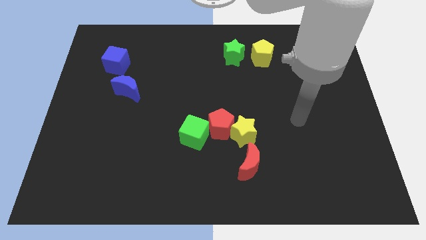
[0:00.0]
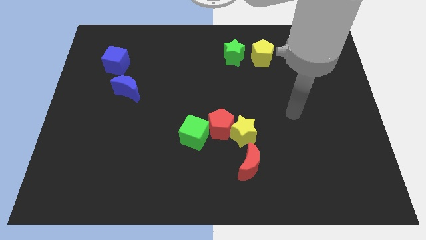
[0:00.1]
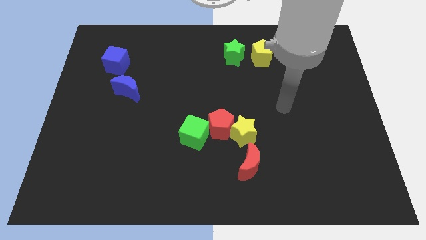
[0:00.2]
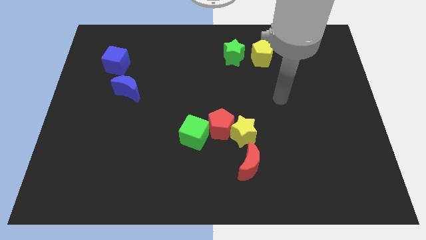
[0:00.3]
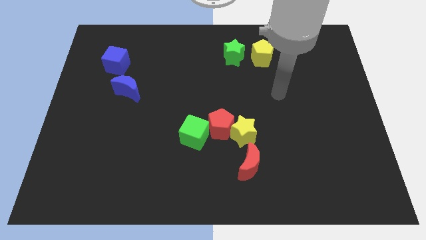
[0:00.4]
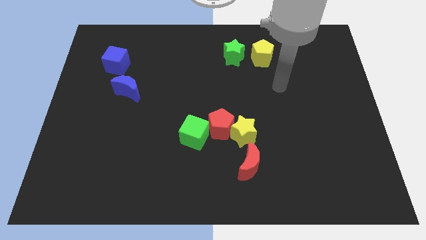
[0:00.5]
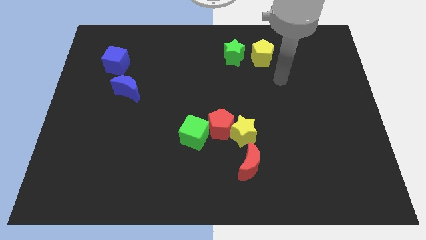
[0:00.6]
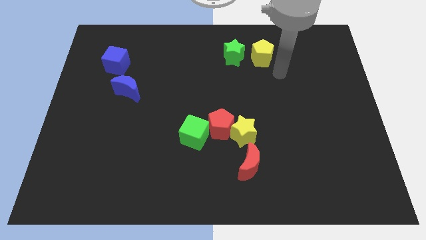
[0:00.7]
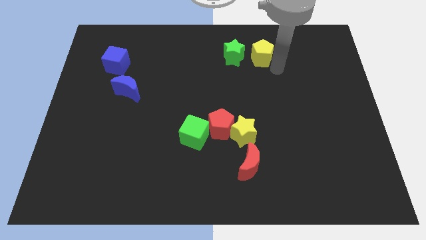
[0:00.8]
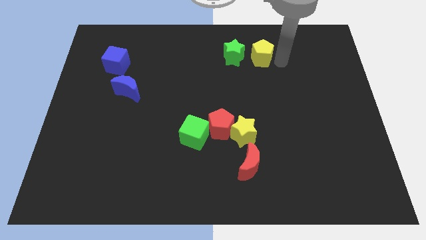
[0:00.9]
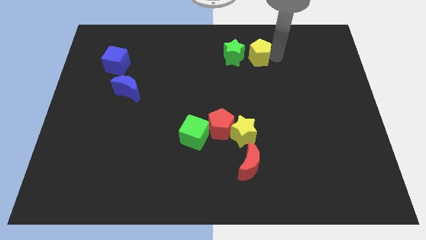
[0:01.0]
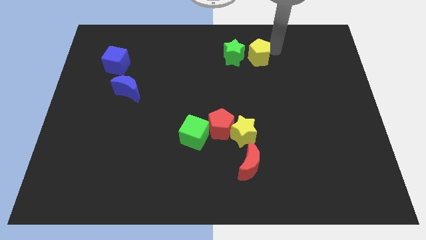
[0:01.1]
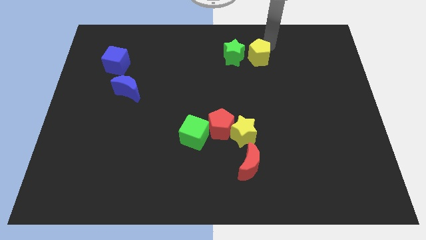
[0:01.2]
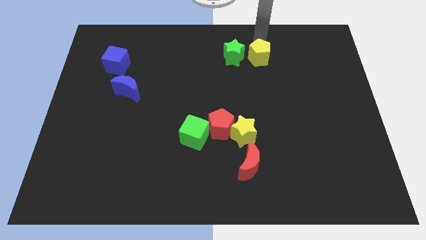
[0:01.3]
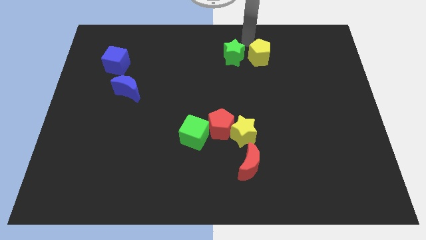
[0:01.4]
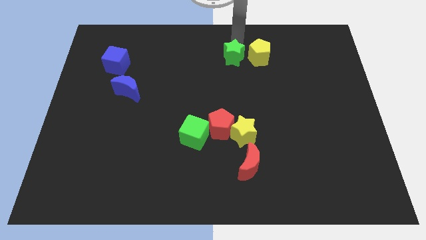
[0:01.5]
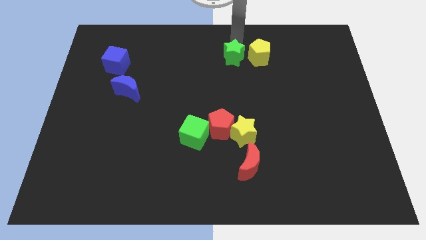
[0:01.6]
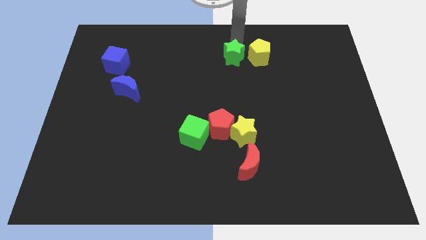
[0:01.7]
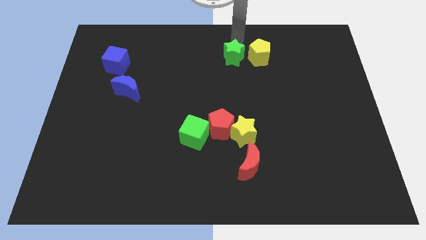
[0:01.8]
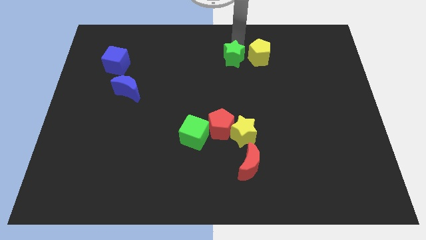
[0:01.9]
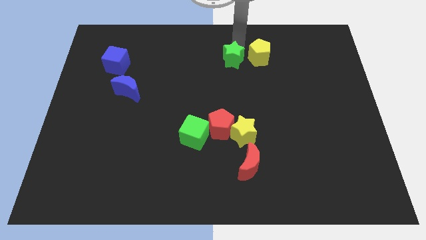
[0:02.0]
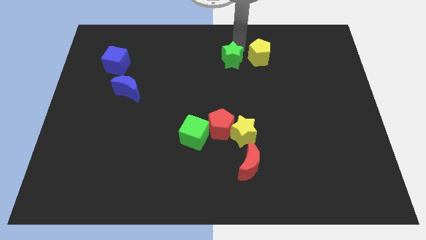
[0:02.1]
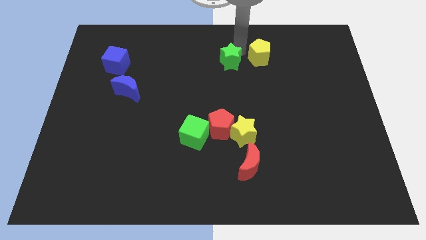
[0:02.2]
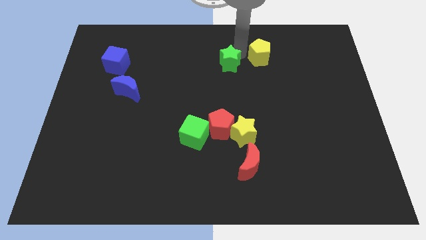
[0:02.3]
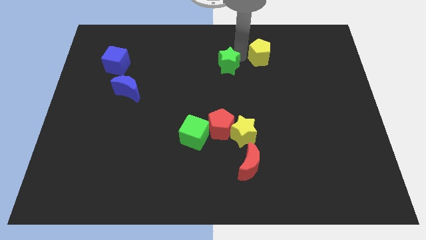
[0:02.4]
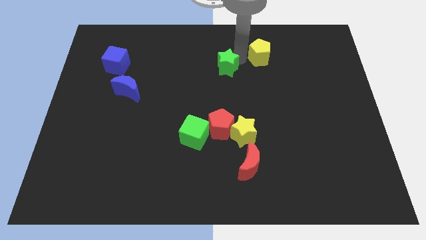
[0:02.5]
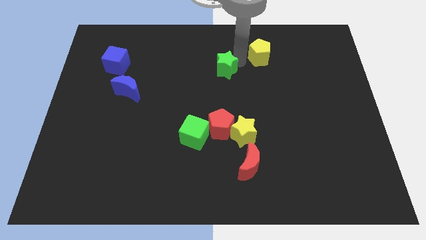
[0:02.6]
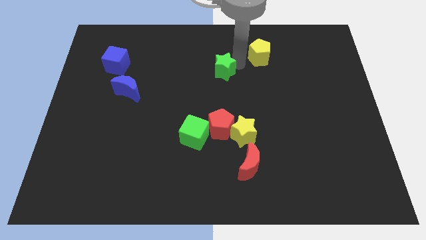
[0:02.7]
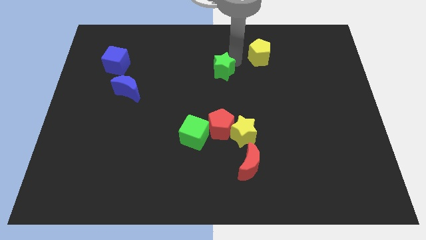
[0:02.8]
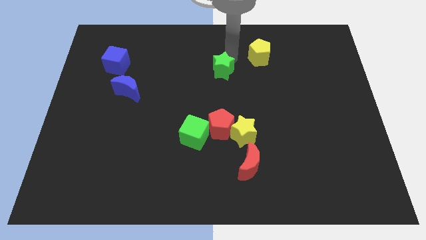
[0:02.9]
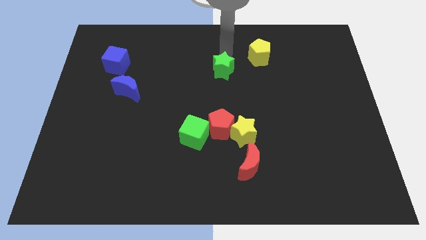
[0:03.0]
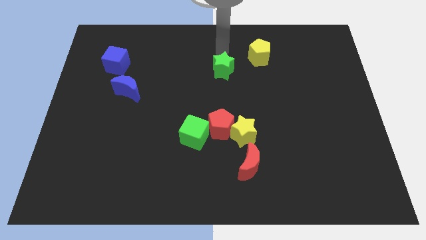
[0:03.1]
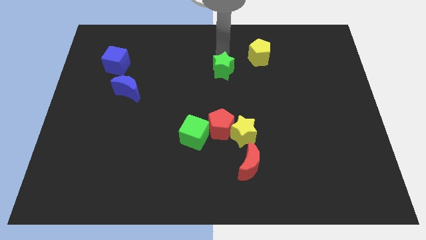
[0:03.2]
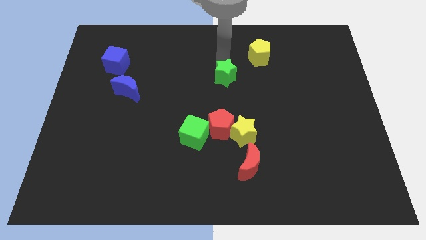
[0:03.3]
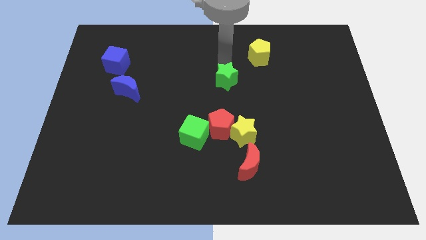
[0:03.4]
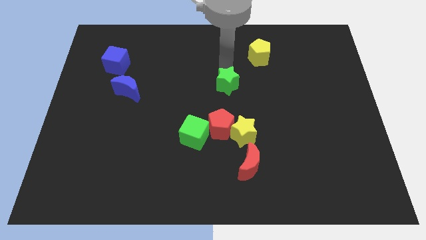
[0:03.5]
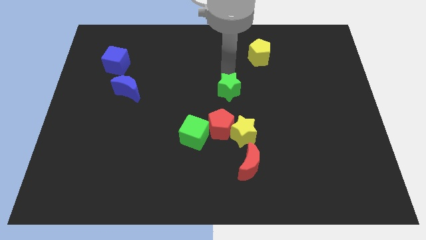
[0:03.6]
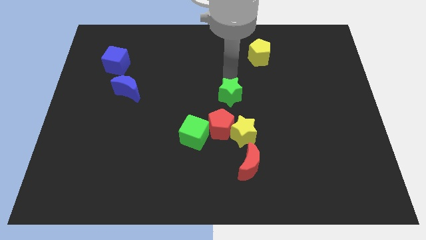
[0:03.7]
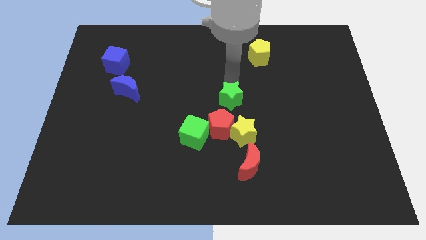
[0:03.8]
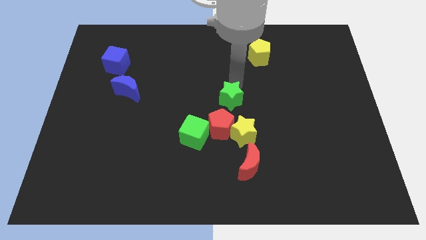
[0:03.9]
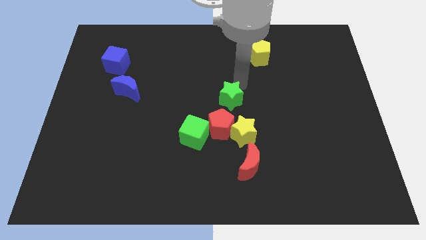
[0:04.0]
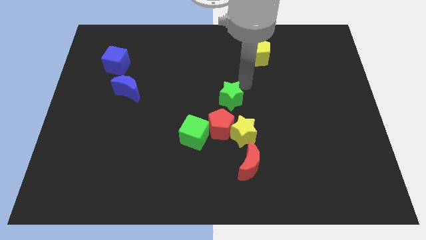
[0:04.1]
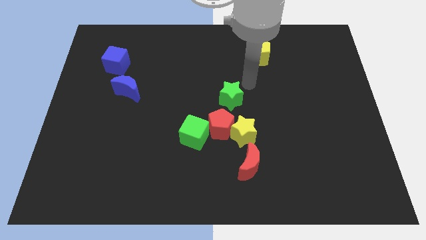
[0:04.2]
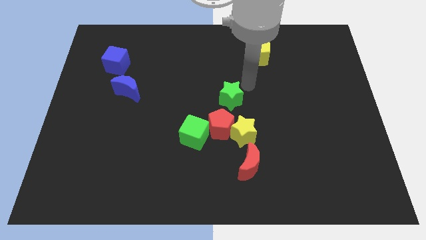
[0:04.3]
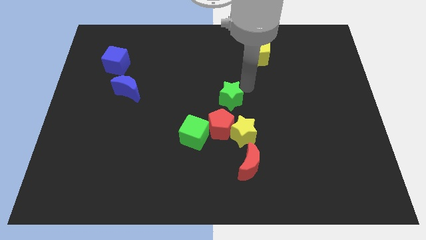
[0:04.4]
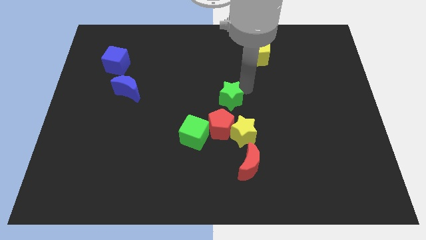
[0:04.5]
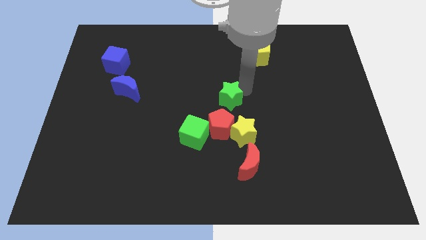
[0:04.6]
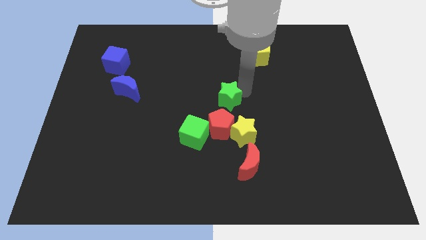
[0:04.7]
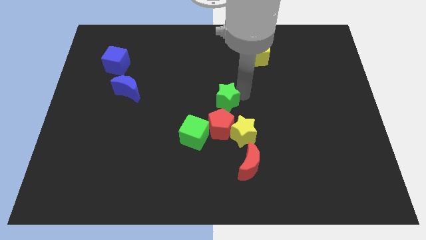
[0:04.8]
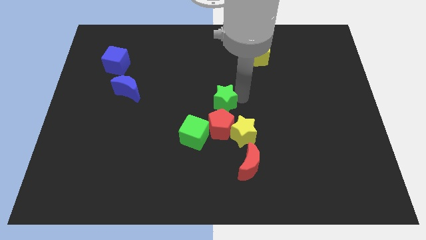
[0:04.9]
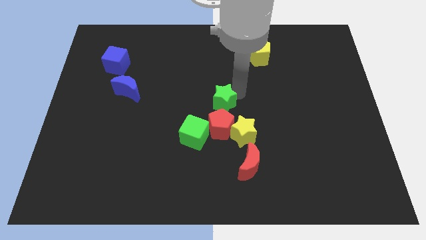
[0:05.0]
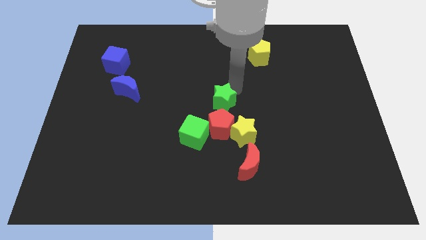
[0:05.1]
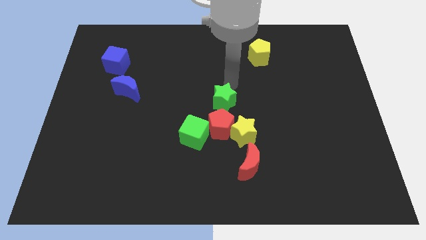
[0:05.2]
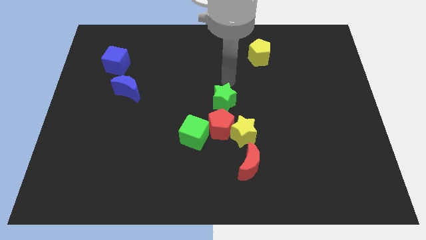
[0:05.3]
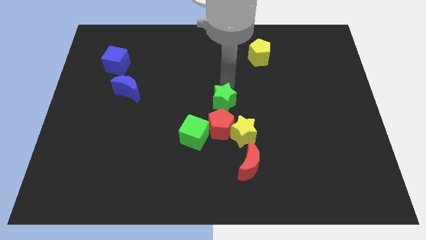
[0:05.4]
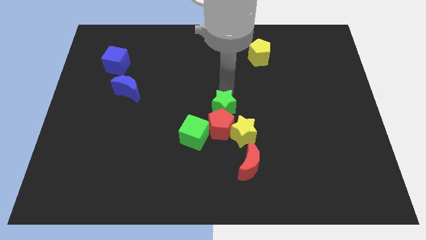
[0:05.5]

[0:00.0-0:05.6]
slide the green star close to the red pentagon

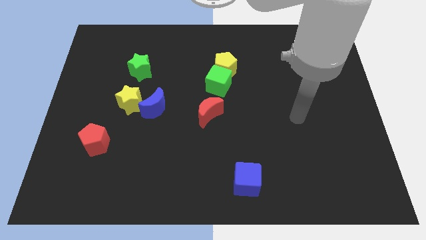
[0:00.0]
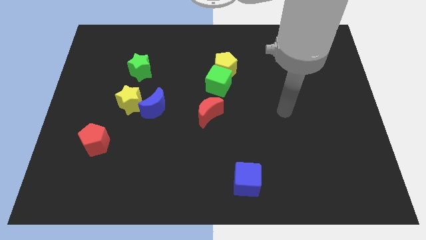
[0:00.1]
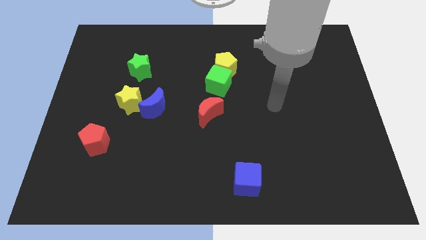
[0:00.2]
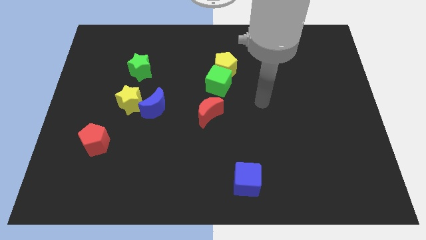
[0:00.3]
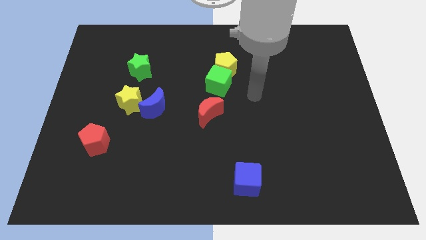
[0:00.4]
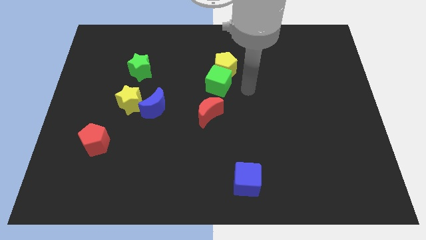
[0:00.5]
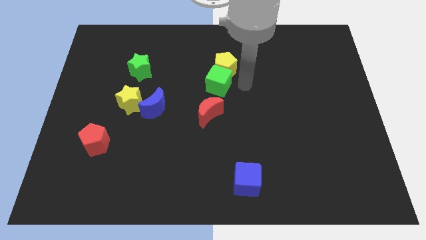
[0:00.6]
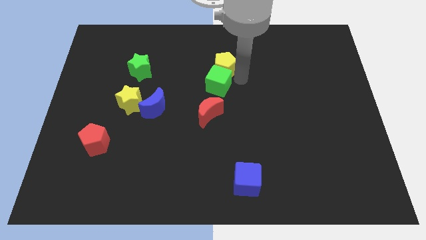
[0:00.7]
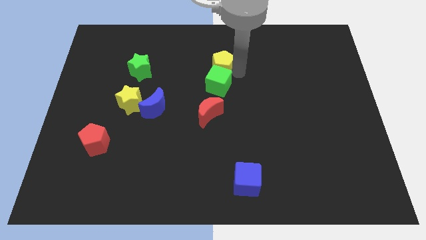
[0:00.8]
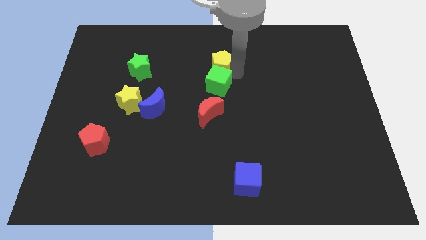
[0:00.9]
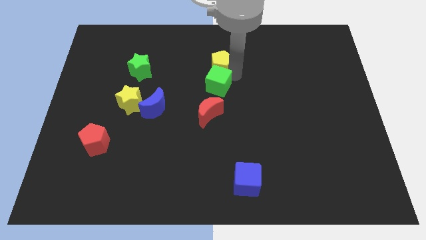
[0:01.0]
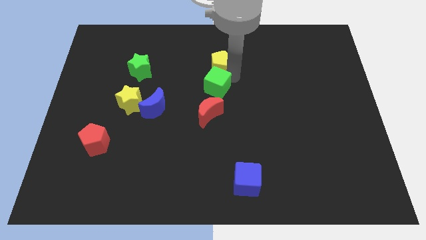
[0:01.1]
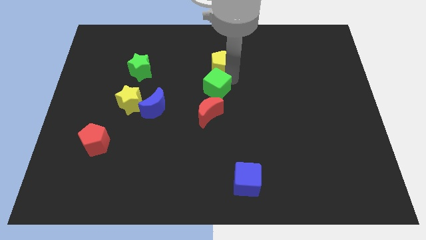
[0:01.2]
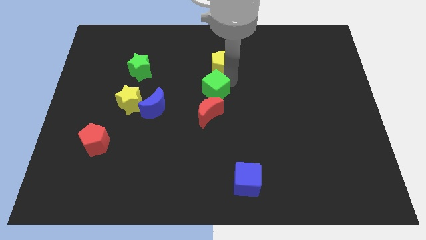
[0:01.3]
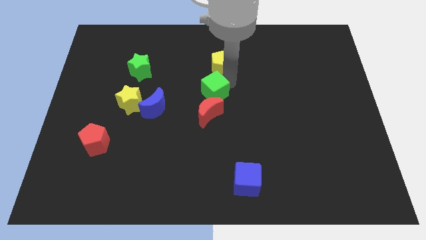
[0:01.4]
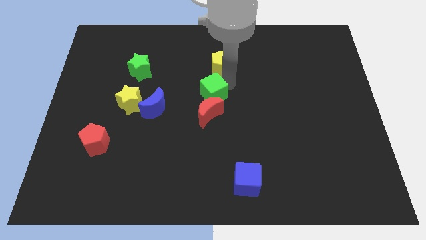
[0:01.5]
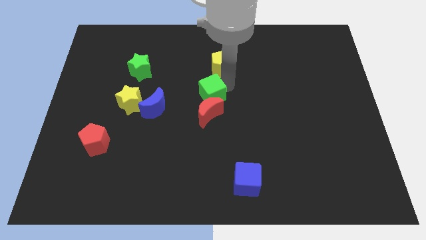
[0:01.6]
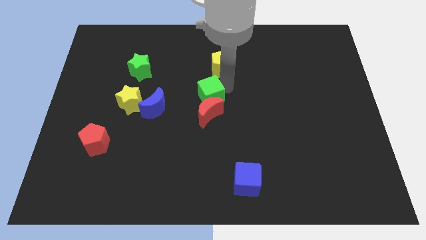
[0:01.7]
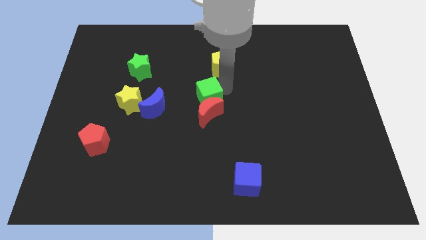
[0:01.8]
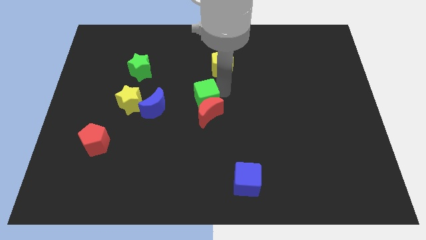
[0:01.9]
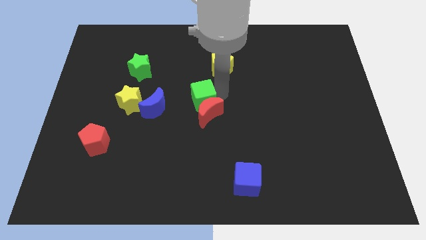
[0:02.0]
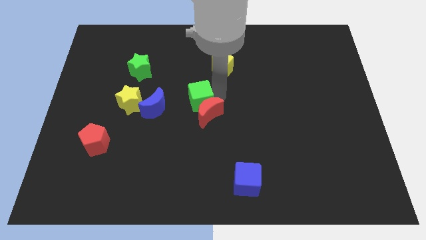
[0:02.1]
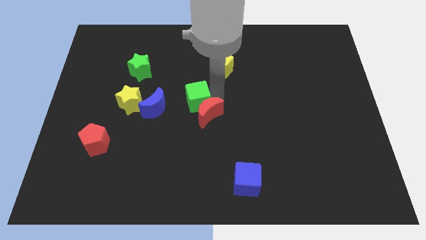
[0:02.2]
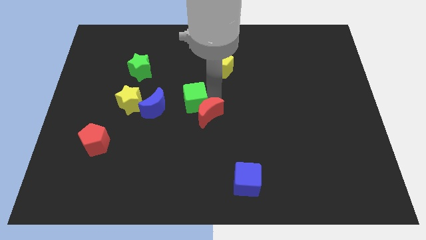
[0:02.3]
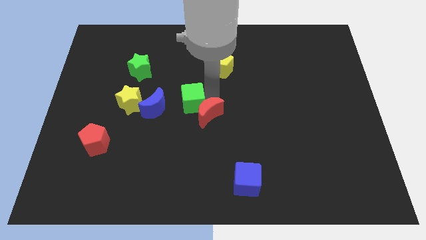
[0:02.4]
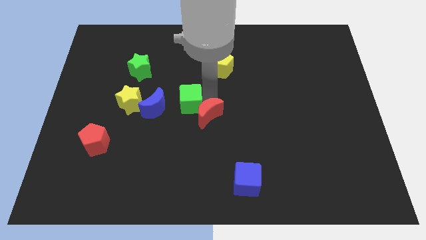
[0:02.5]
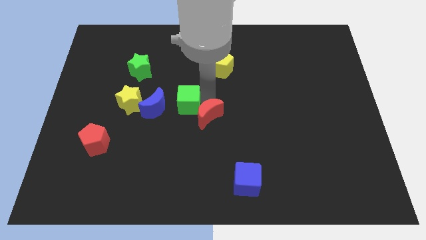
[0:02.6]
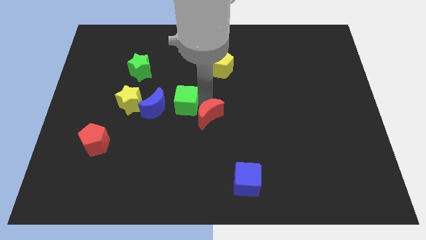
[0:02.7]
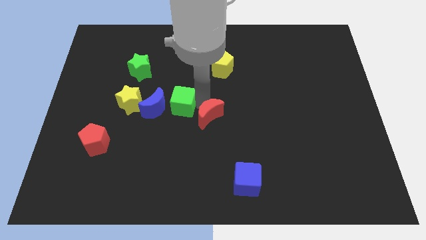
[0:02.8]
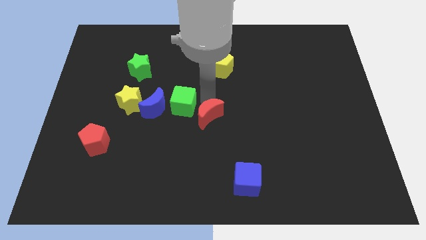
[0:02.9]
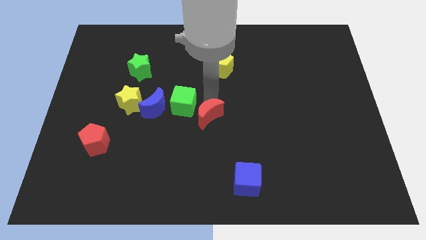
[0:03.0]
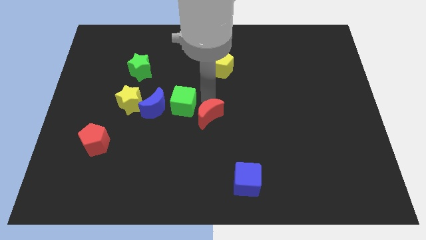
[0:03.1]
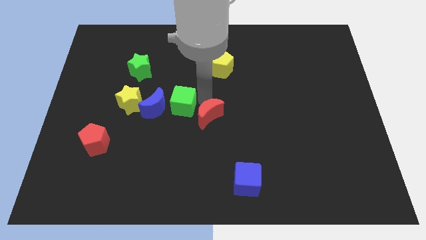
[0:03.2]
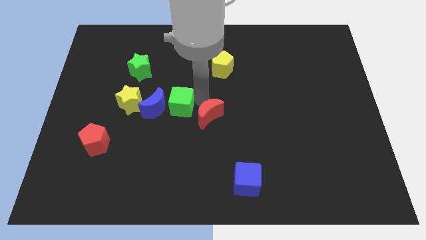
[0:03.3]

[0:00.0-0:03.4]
put the green cube to the blue moon
